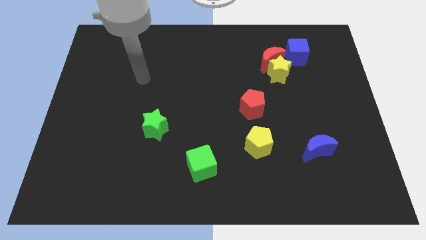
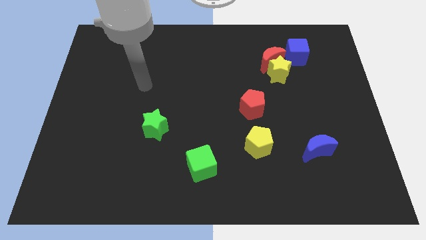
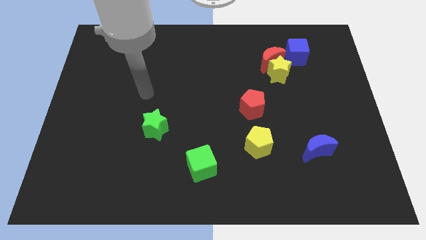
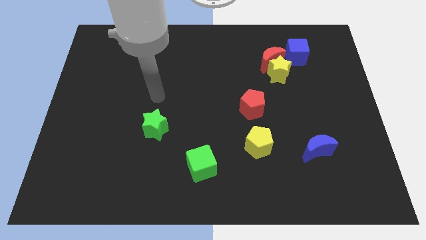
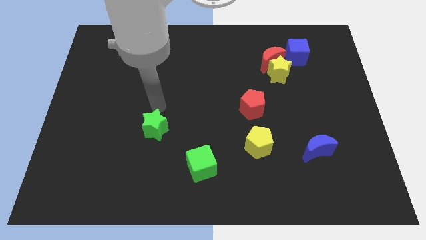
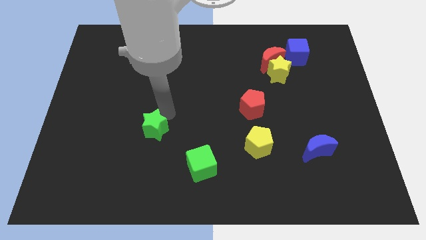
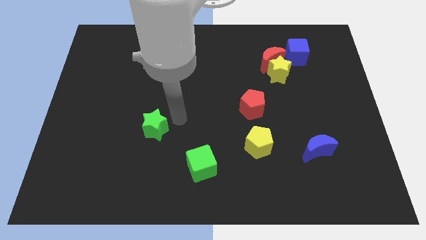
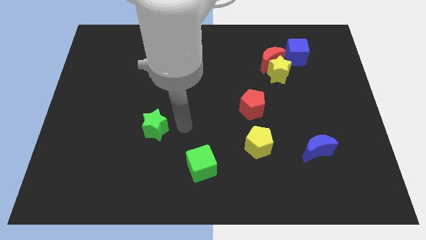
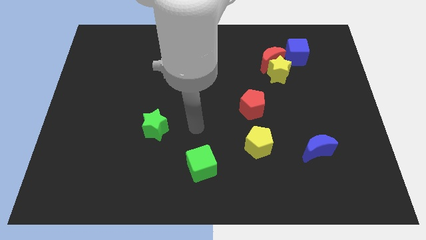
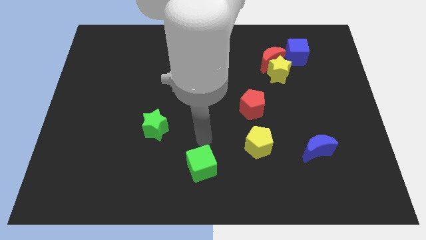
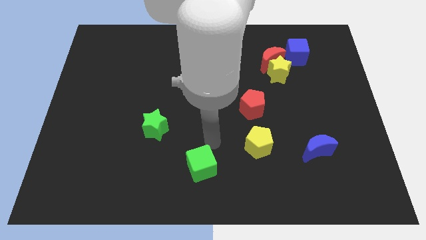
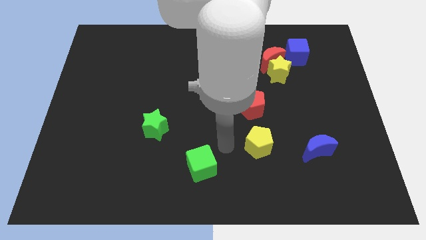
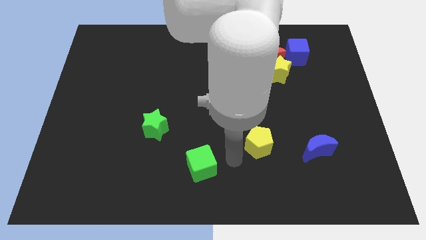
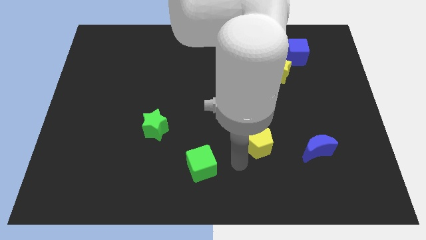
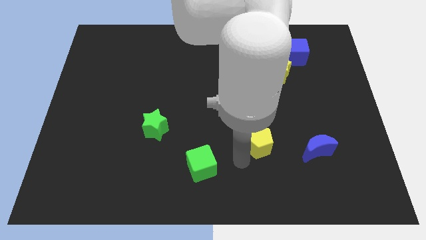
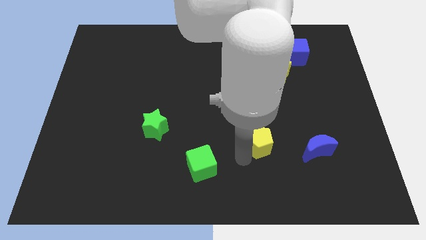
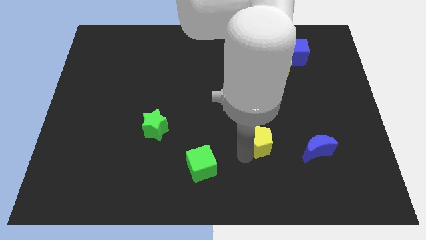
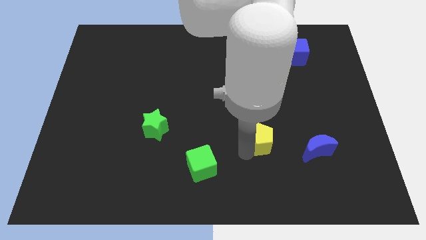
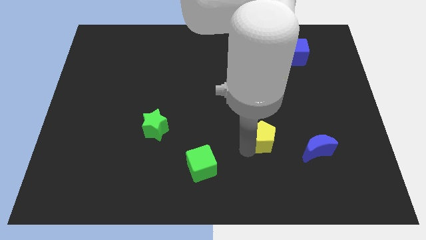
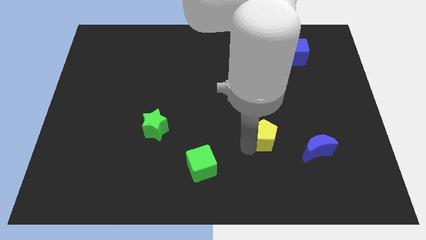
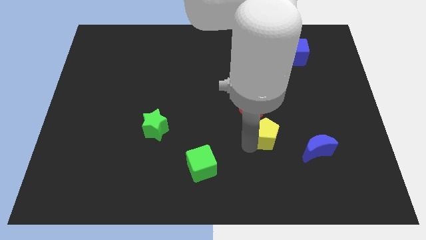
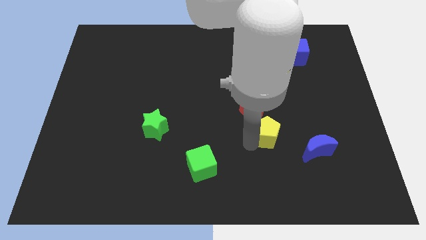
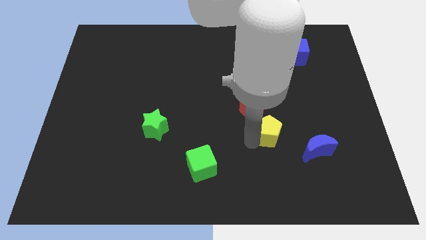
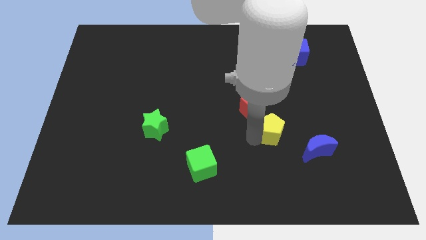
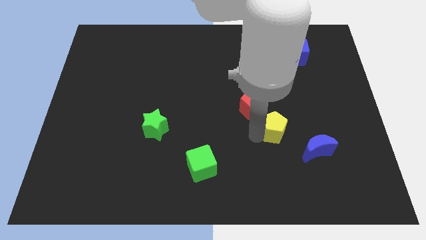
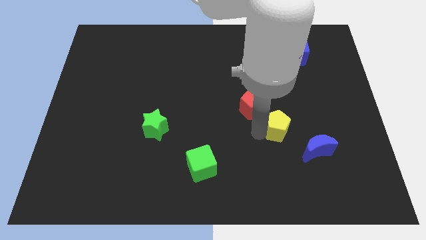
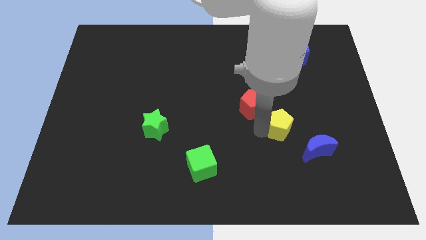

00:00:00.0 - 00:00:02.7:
slightly push the yellow pentagon up and right diagonally

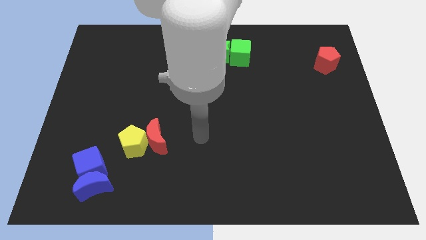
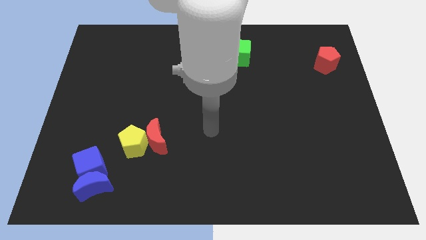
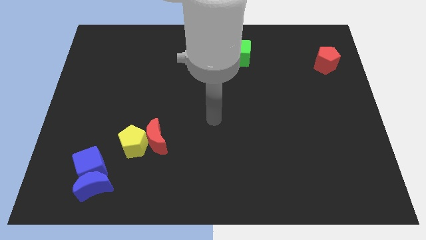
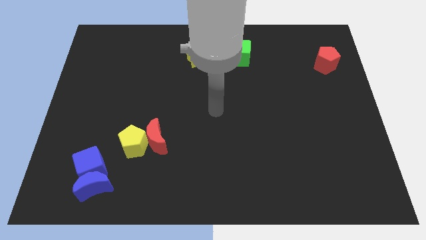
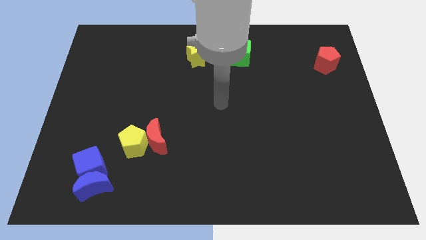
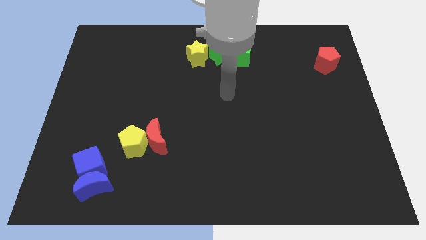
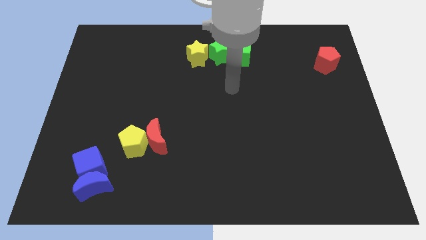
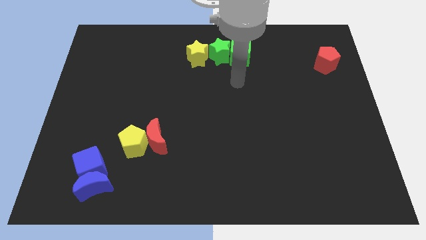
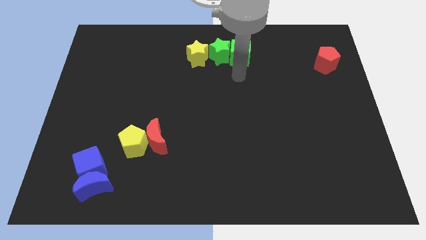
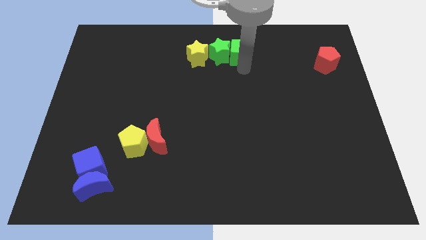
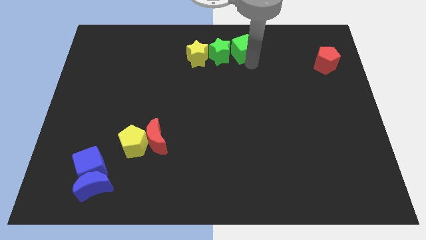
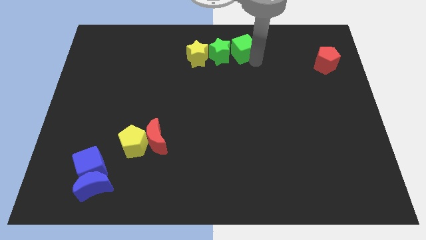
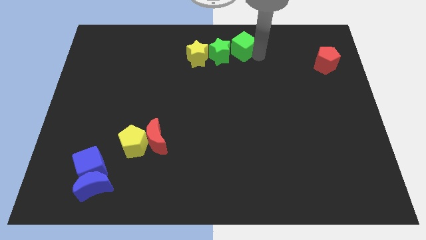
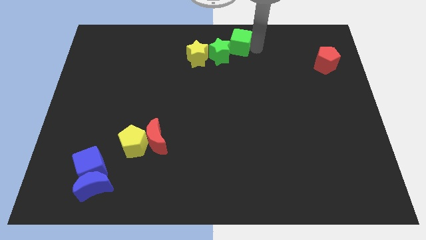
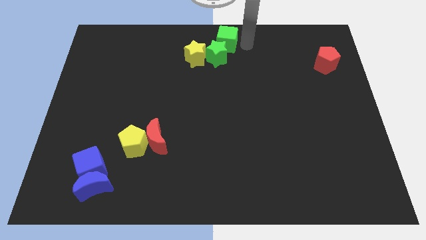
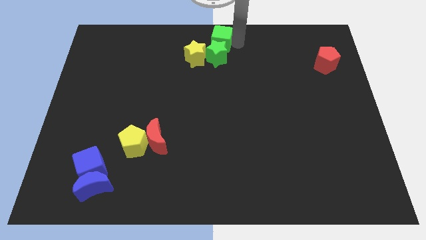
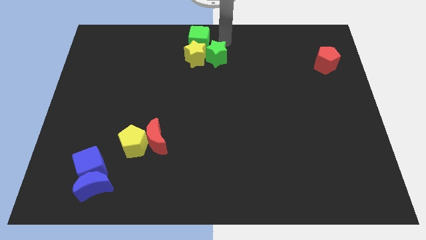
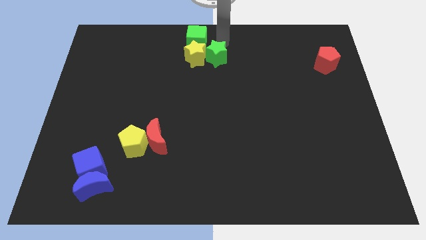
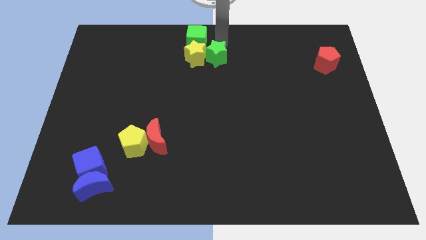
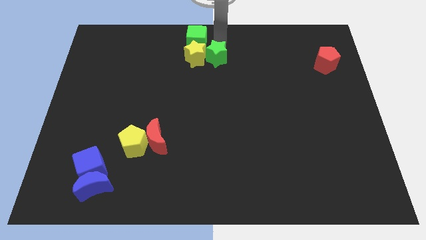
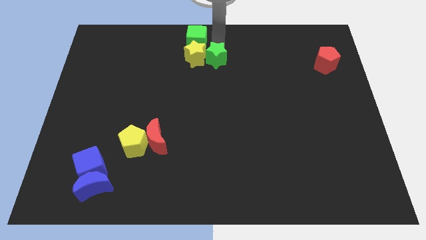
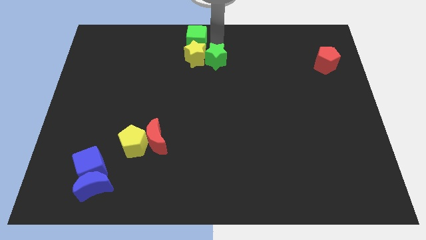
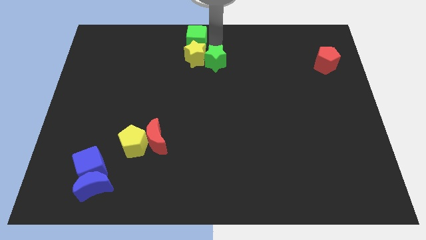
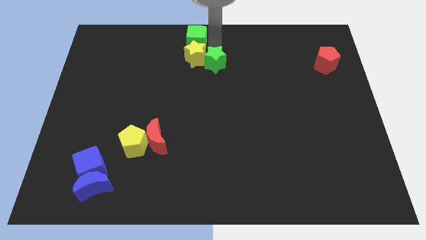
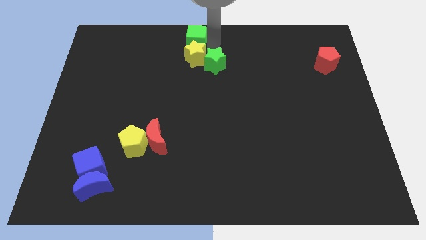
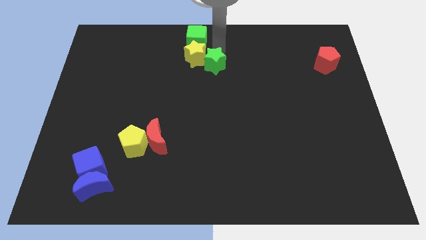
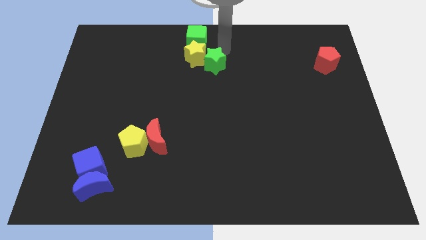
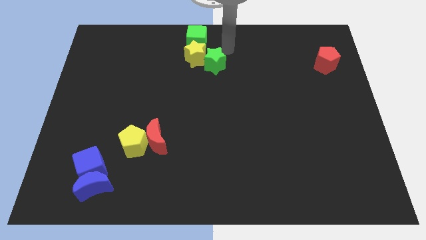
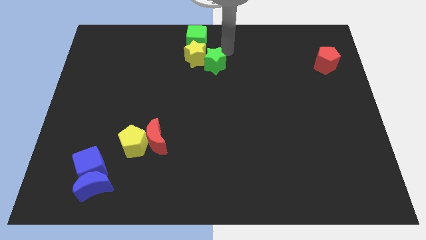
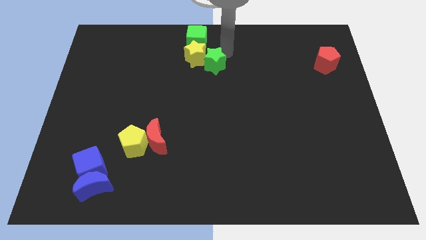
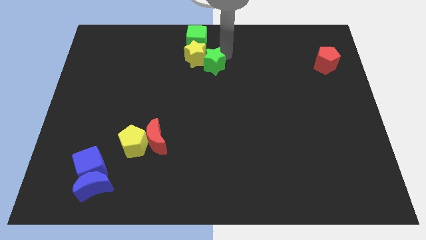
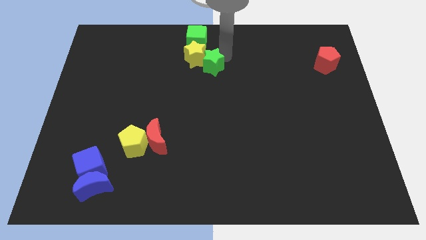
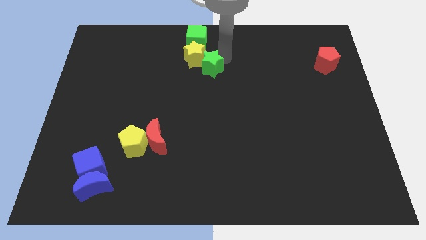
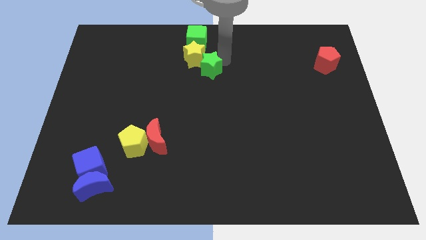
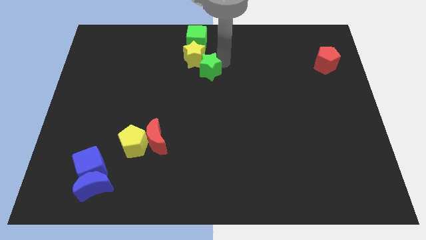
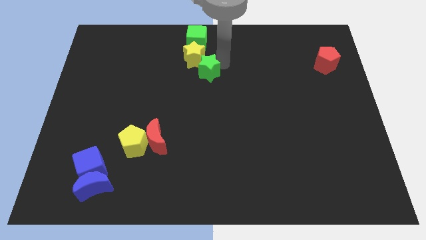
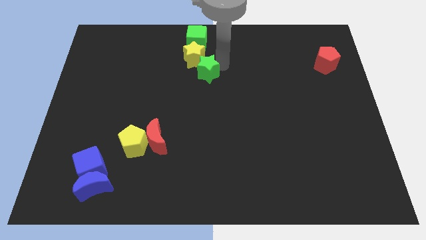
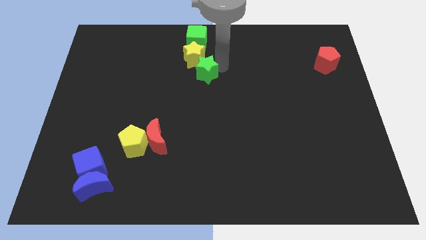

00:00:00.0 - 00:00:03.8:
slightly push the green star downwards and to the left diagonally

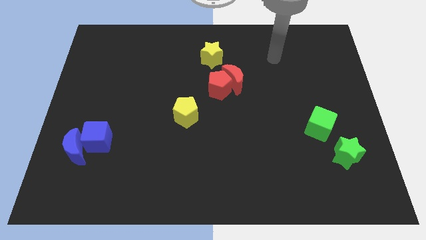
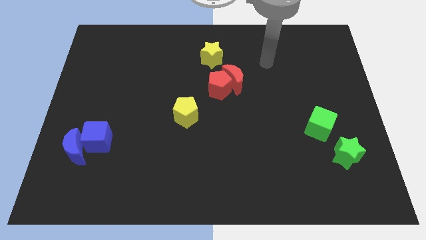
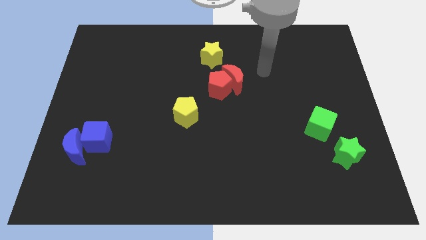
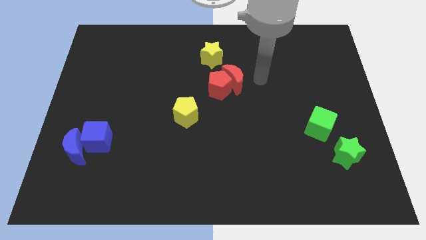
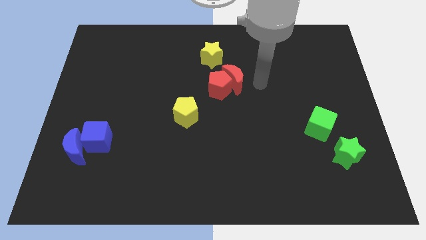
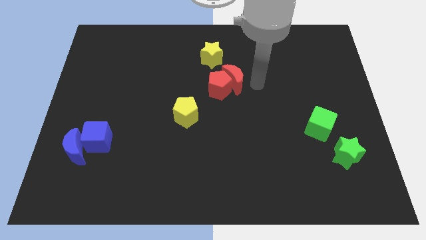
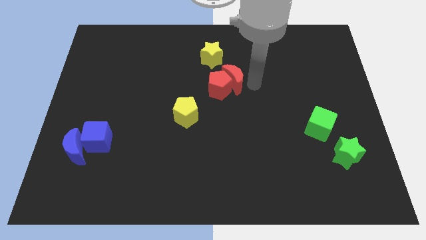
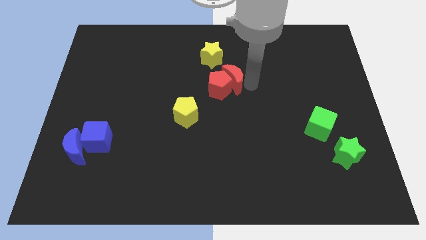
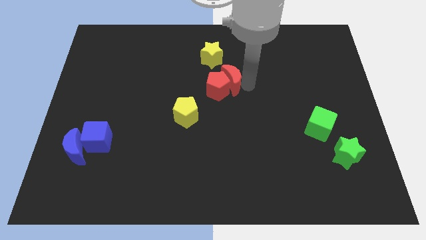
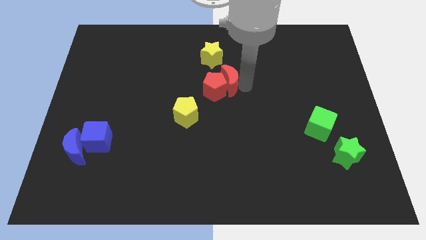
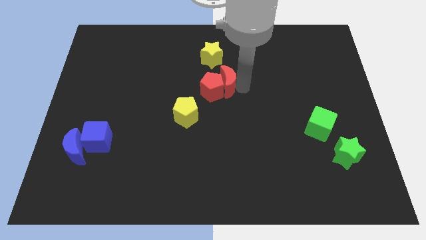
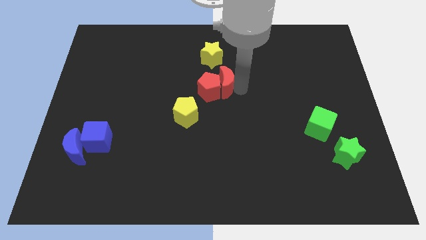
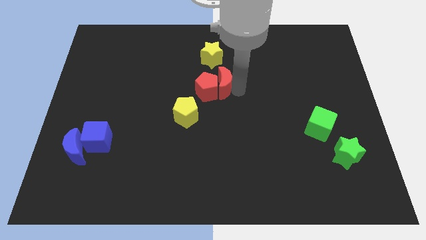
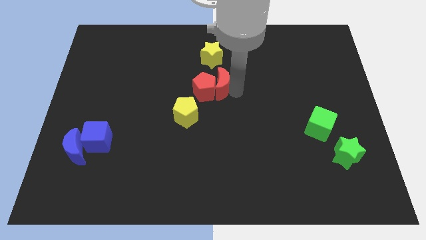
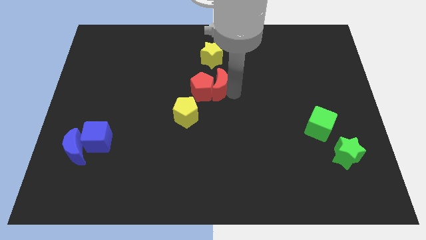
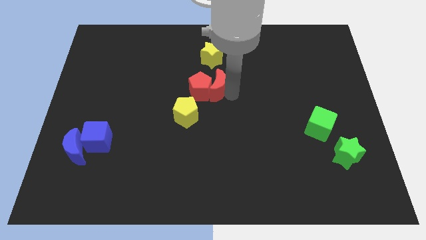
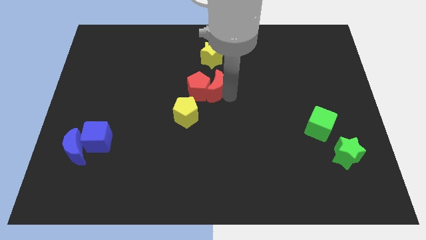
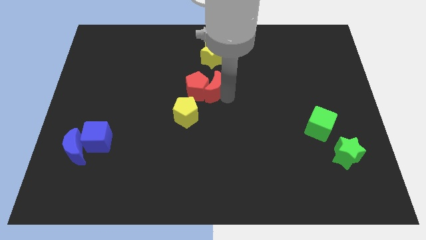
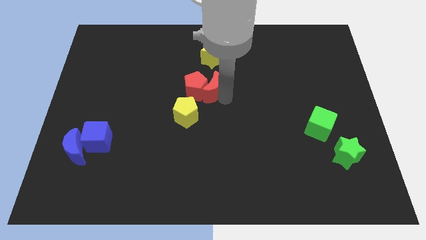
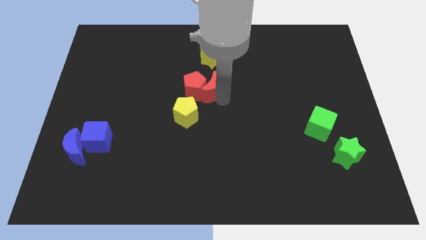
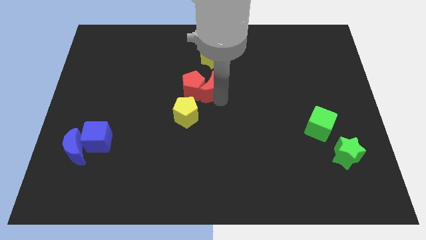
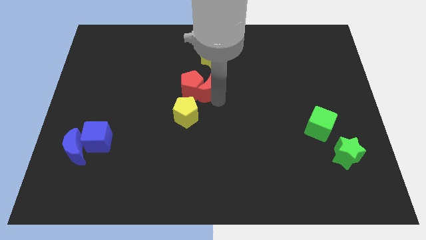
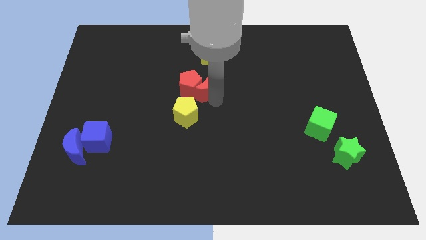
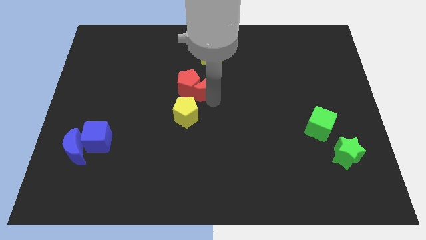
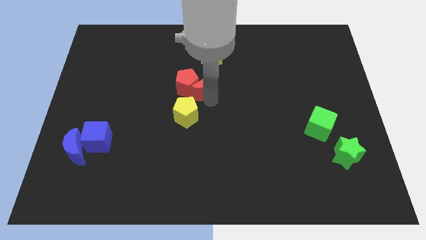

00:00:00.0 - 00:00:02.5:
push the red moon to the left a little bit
